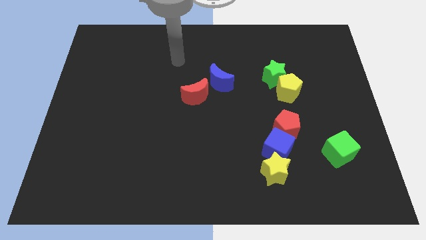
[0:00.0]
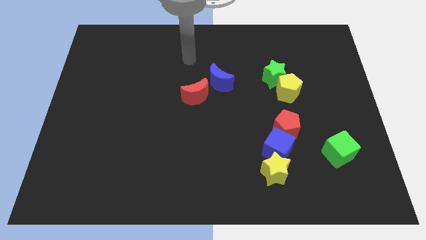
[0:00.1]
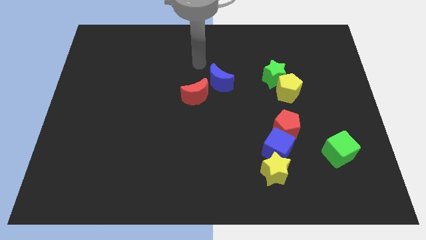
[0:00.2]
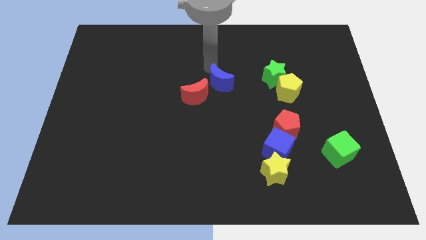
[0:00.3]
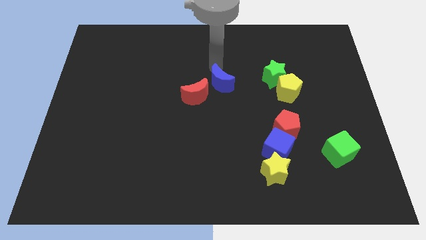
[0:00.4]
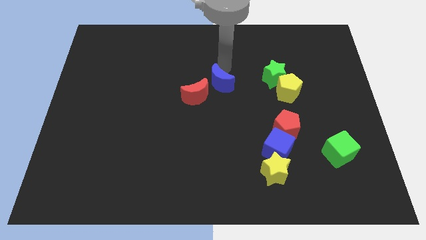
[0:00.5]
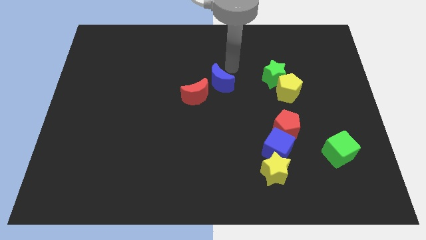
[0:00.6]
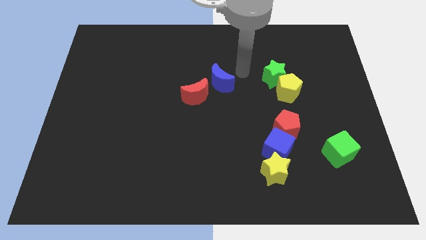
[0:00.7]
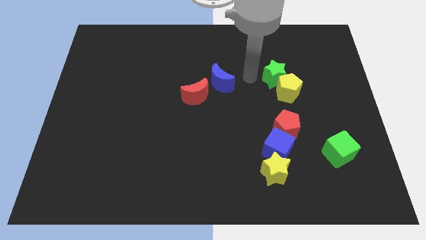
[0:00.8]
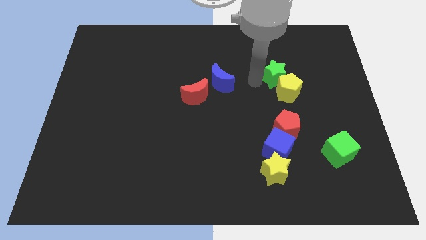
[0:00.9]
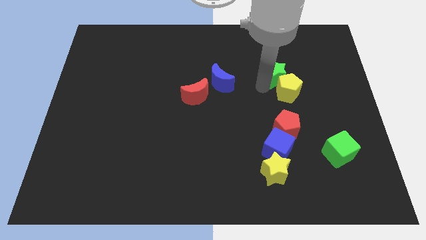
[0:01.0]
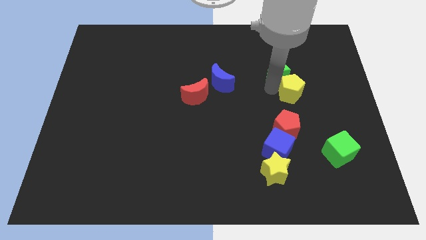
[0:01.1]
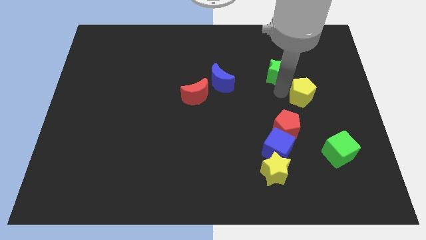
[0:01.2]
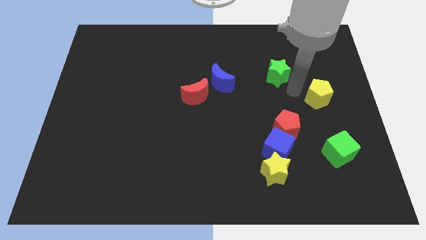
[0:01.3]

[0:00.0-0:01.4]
pull the green star apart from the yellow pentagon

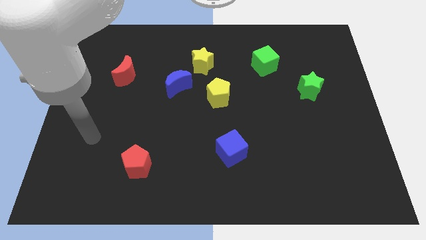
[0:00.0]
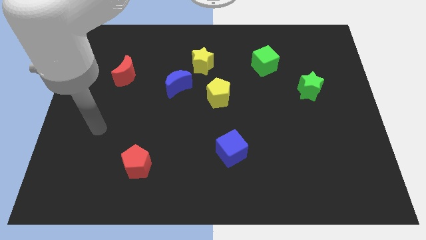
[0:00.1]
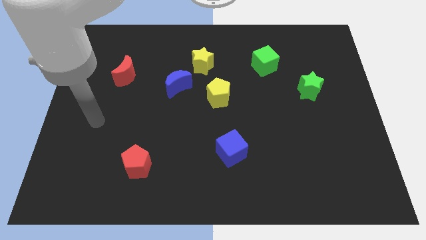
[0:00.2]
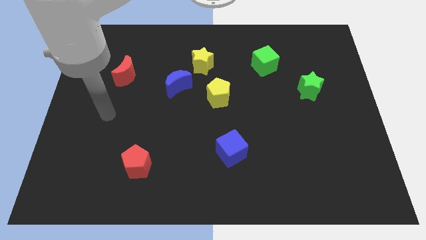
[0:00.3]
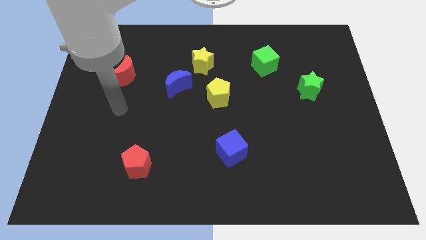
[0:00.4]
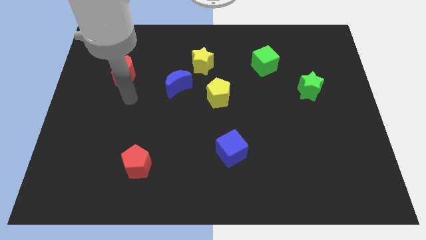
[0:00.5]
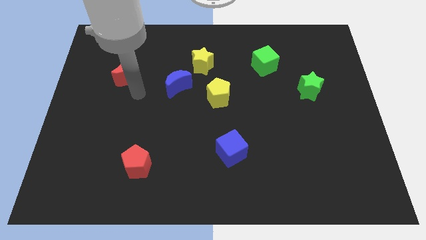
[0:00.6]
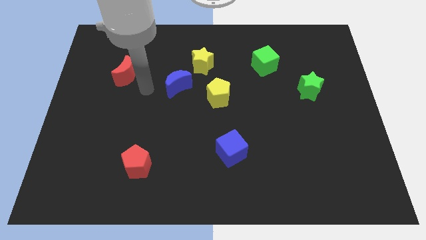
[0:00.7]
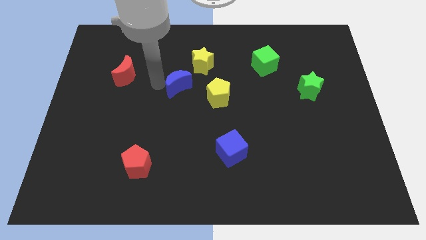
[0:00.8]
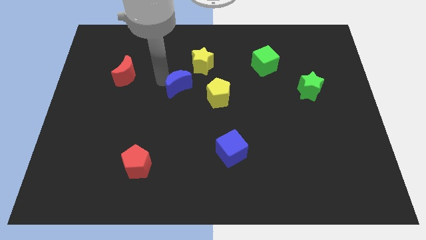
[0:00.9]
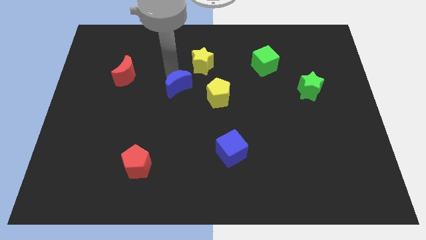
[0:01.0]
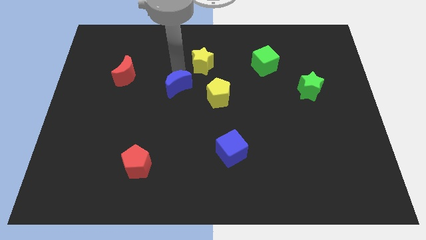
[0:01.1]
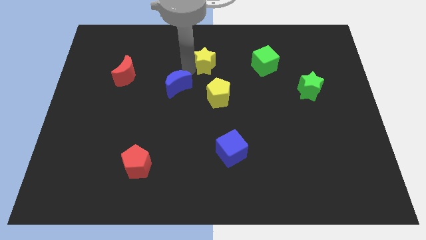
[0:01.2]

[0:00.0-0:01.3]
separate the blue moon from the yellow star

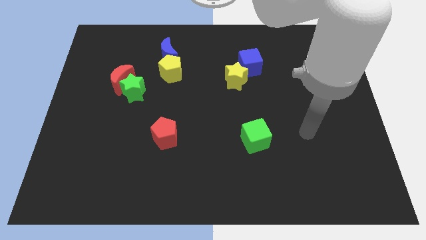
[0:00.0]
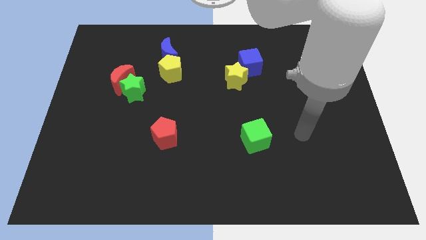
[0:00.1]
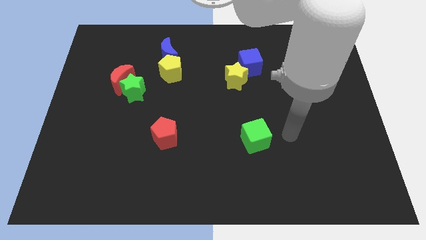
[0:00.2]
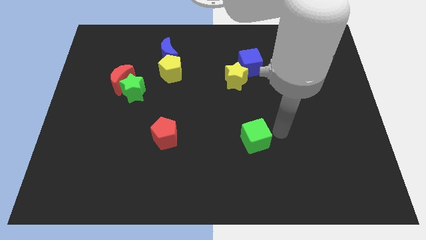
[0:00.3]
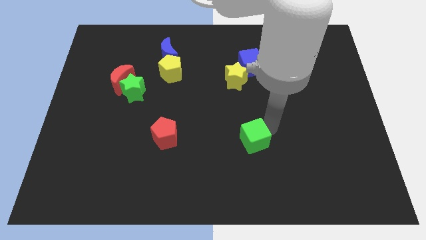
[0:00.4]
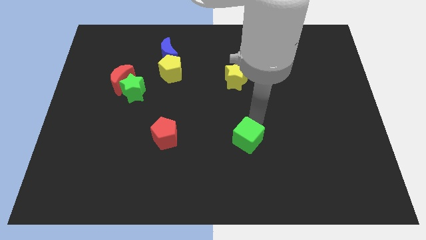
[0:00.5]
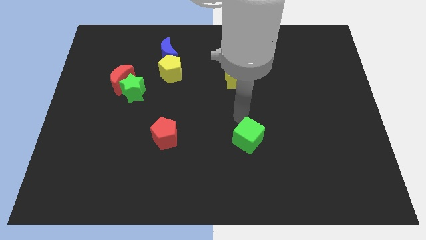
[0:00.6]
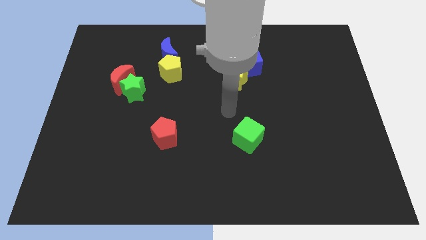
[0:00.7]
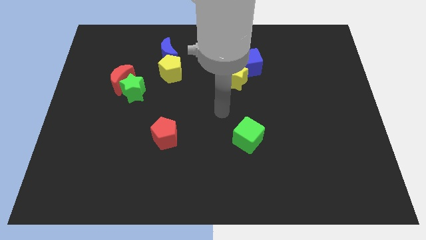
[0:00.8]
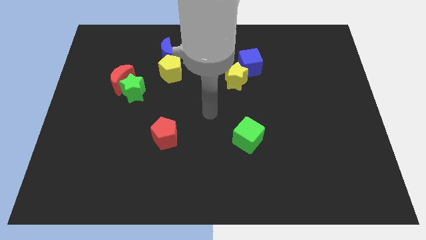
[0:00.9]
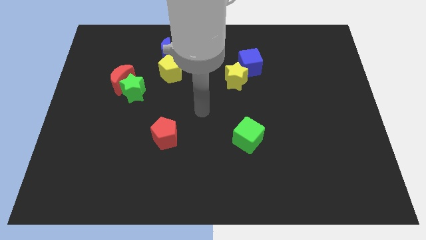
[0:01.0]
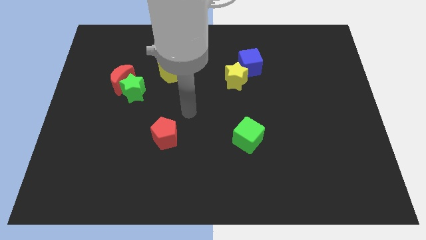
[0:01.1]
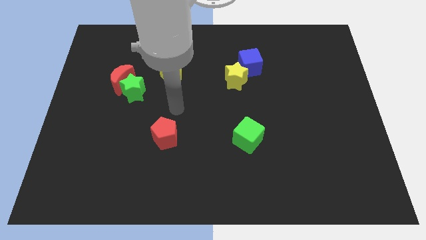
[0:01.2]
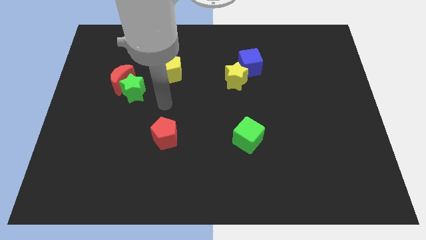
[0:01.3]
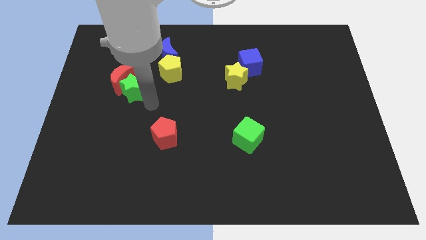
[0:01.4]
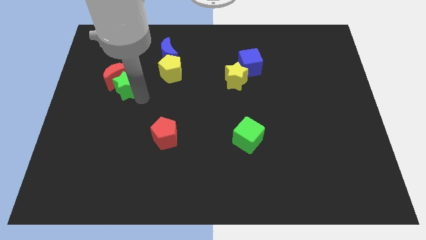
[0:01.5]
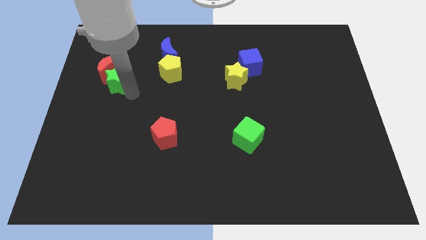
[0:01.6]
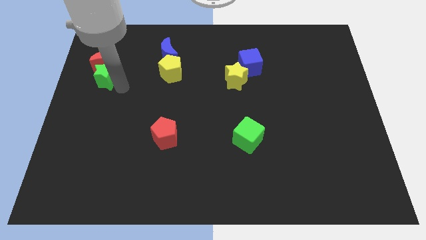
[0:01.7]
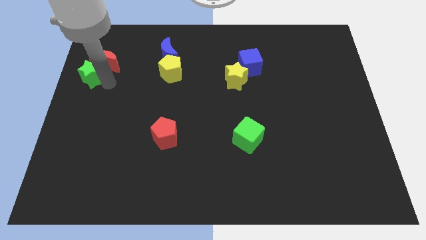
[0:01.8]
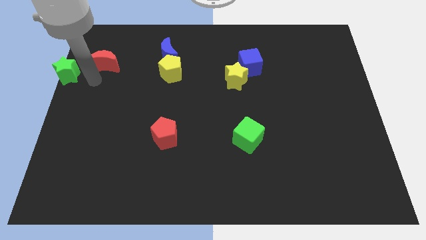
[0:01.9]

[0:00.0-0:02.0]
separate the red moon from the green star

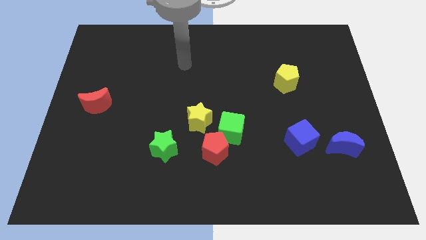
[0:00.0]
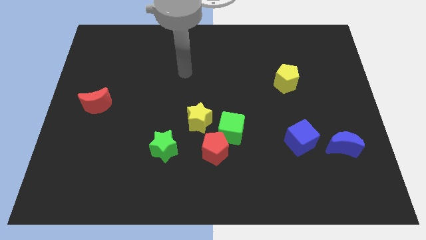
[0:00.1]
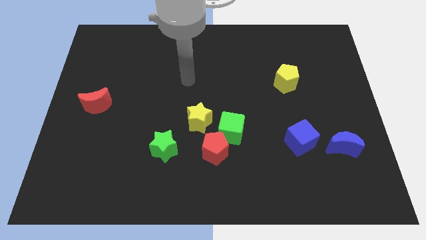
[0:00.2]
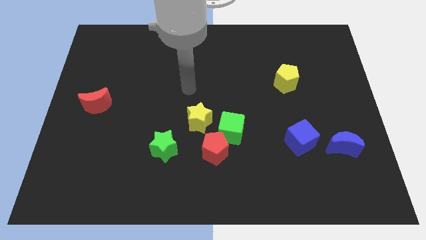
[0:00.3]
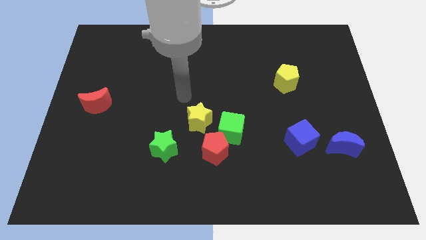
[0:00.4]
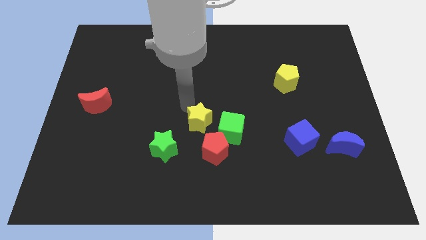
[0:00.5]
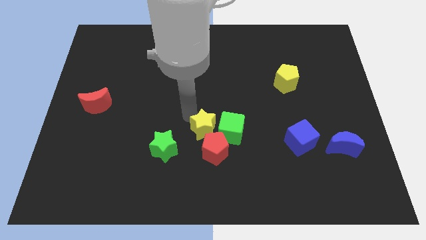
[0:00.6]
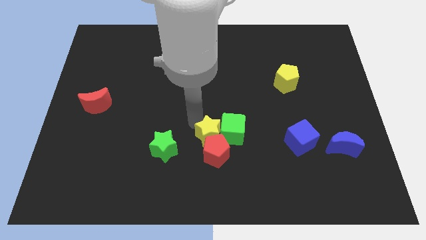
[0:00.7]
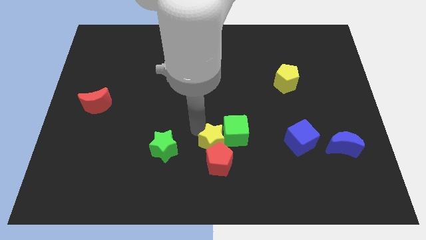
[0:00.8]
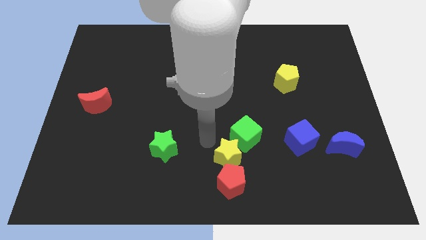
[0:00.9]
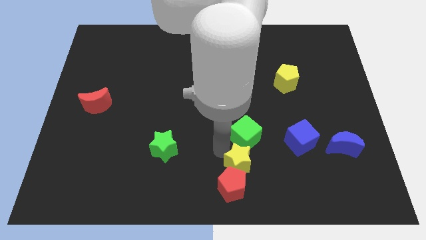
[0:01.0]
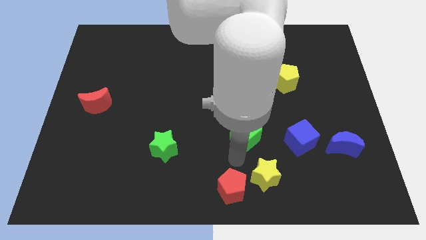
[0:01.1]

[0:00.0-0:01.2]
separate the green cube from the red pentagon and yellow star

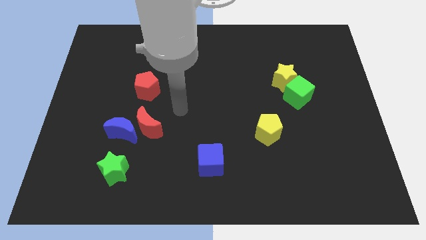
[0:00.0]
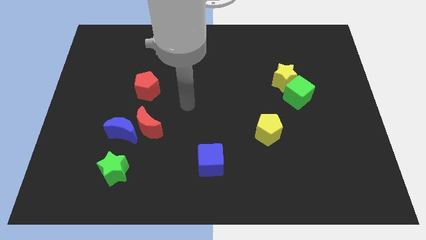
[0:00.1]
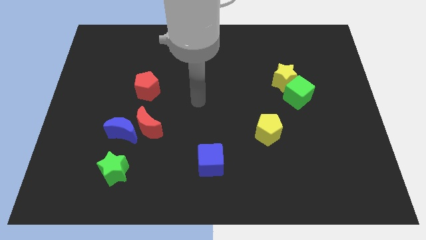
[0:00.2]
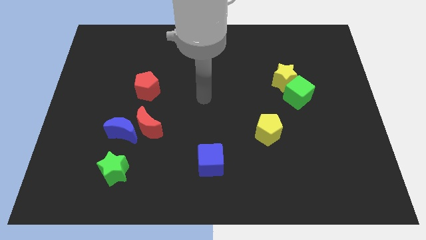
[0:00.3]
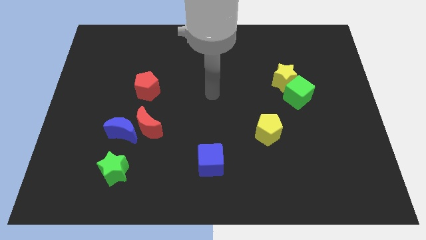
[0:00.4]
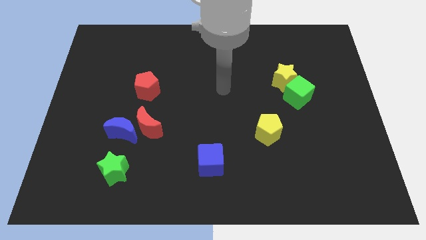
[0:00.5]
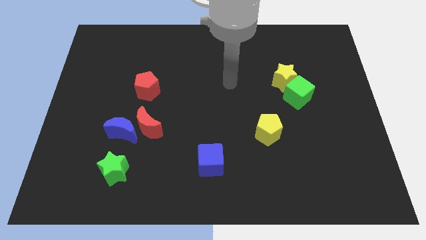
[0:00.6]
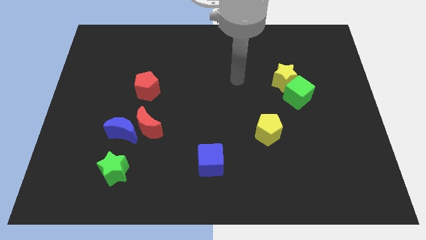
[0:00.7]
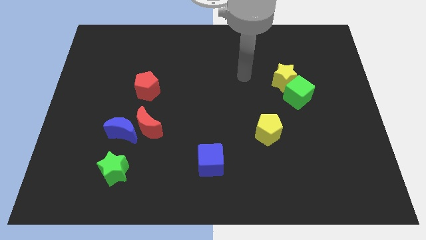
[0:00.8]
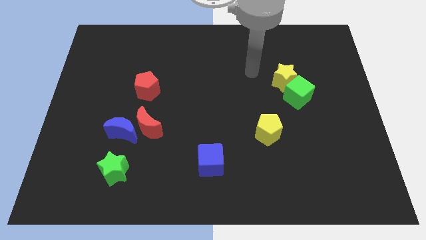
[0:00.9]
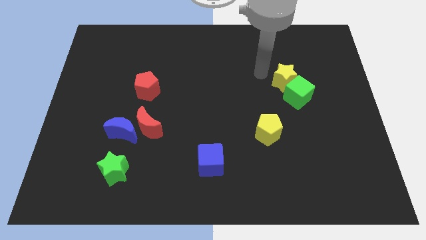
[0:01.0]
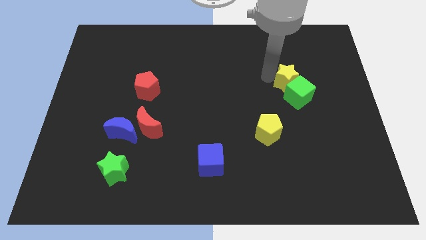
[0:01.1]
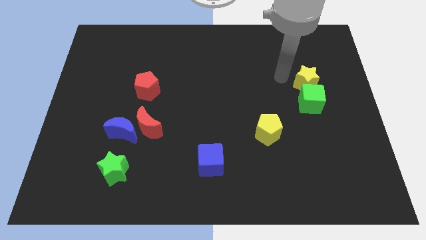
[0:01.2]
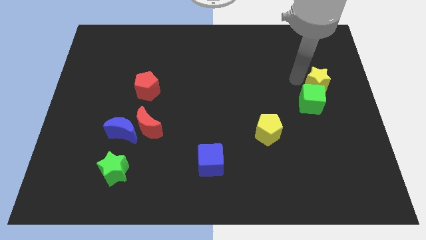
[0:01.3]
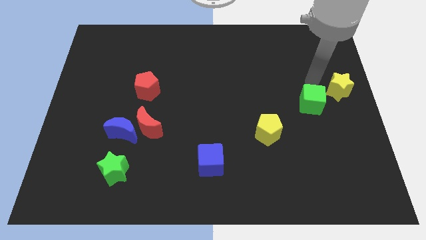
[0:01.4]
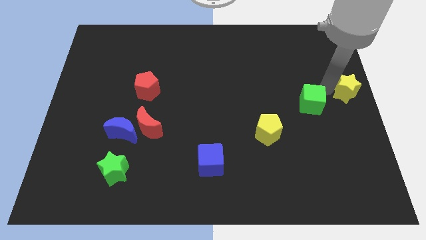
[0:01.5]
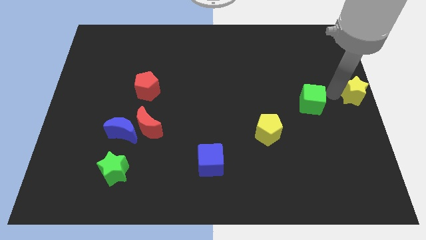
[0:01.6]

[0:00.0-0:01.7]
separate the green cube from the yellow star

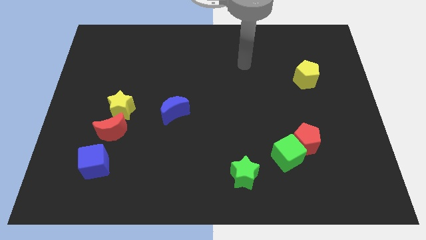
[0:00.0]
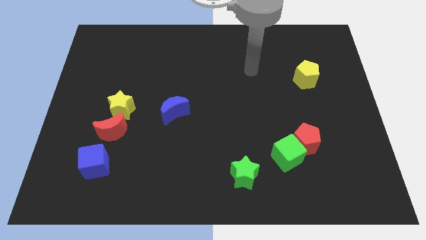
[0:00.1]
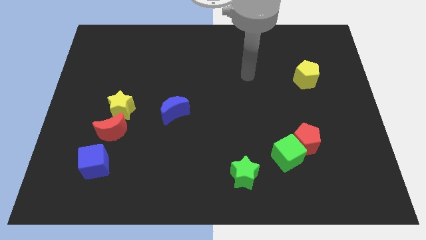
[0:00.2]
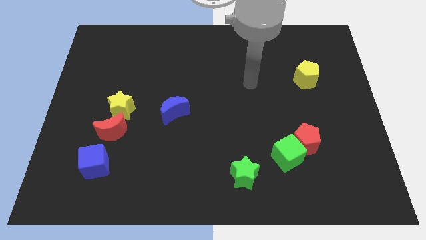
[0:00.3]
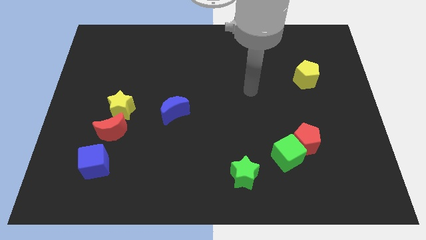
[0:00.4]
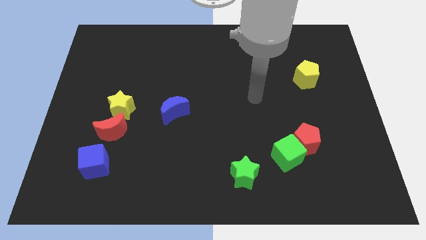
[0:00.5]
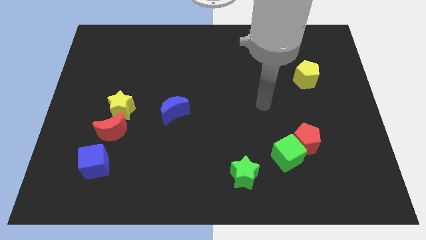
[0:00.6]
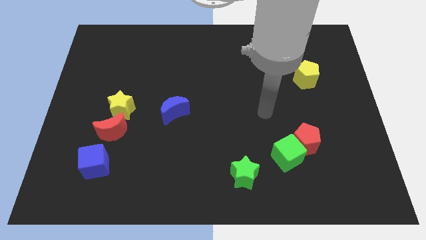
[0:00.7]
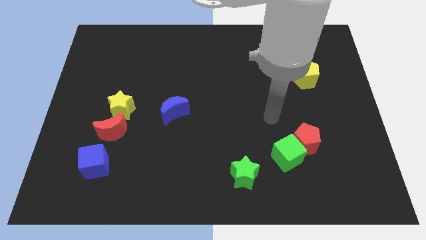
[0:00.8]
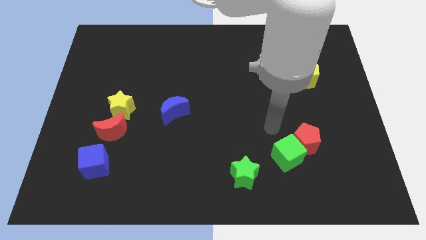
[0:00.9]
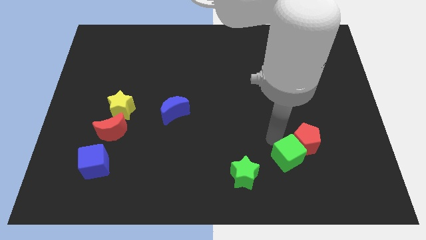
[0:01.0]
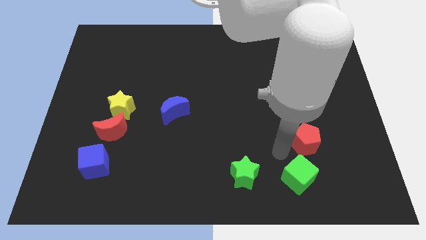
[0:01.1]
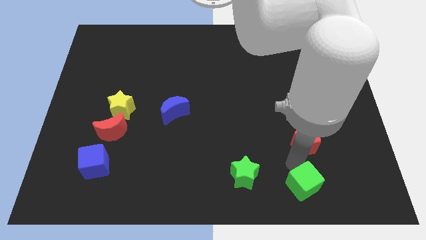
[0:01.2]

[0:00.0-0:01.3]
pull the red pentagon apart from the green cube

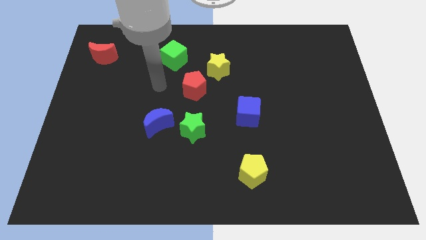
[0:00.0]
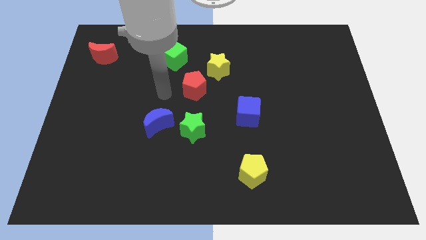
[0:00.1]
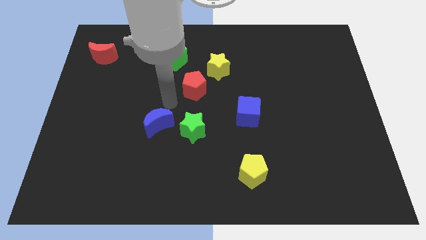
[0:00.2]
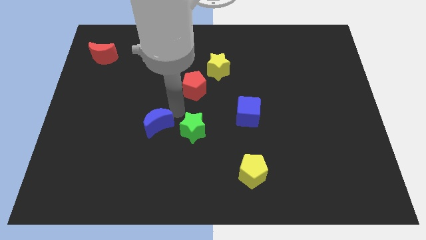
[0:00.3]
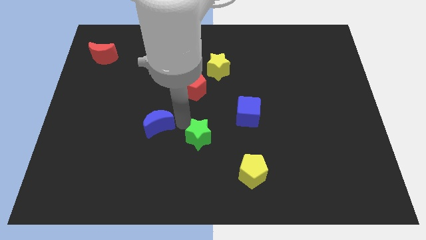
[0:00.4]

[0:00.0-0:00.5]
pull the blue moon apart from the green star

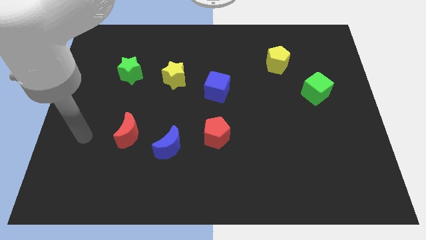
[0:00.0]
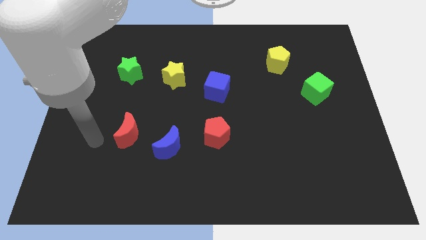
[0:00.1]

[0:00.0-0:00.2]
separate the red moon from the blue moon
